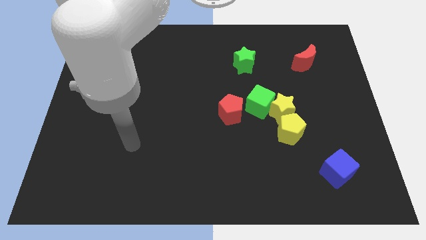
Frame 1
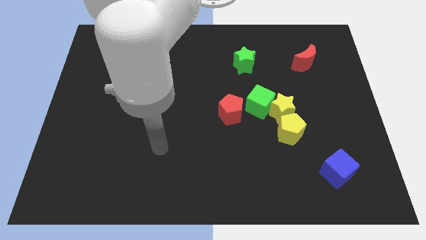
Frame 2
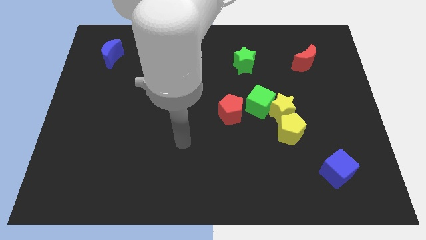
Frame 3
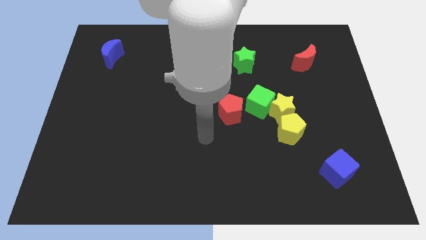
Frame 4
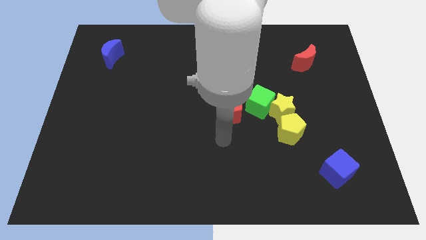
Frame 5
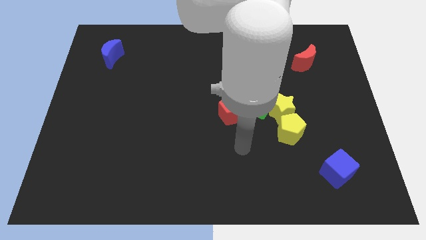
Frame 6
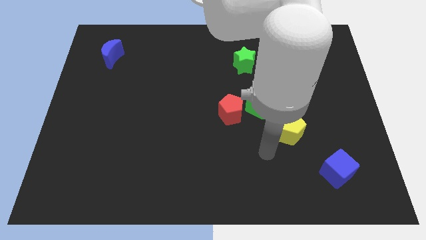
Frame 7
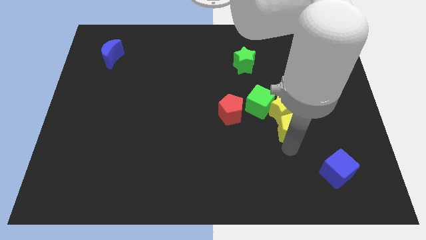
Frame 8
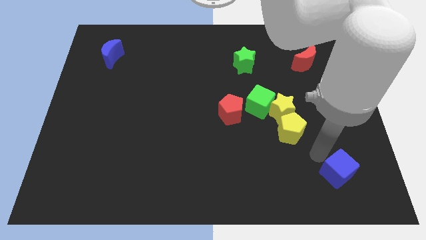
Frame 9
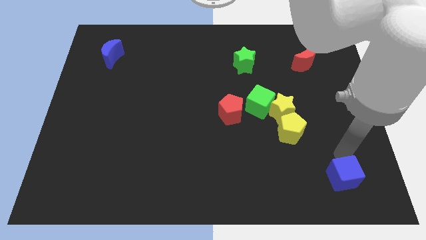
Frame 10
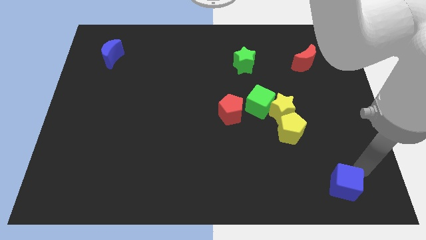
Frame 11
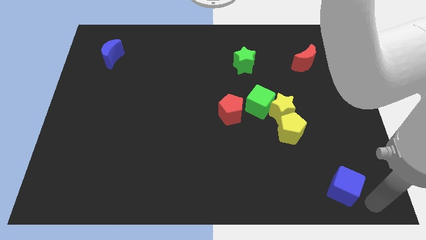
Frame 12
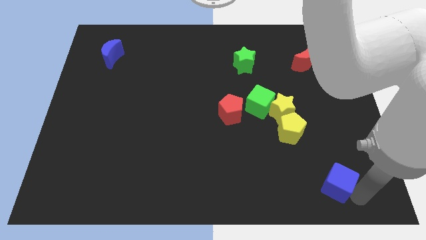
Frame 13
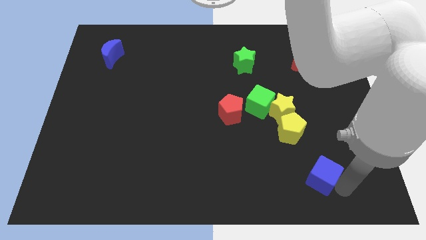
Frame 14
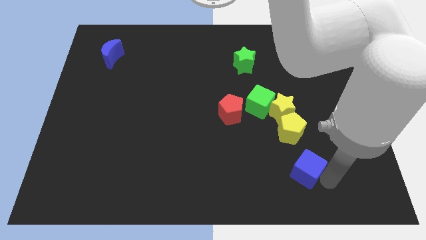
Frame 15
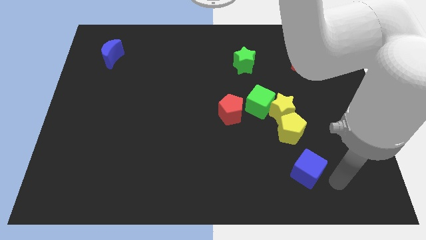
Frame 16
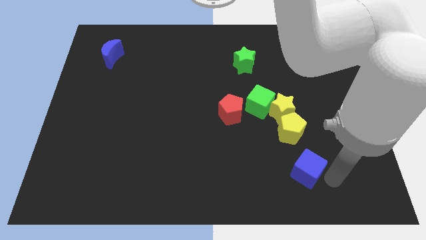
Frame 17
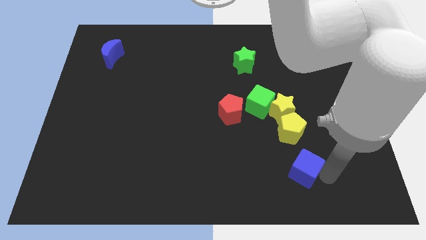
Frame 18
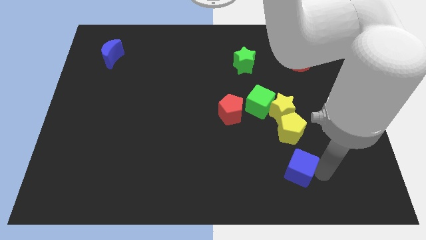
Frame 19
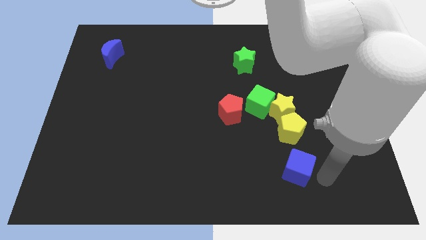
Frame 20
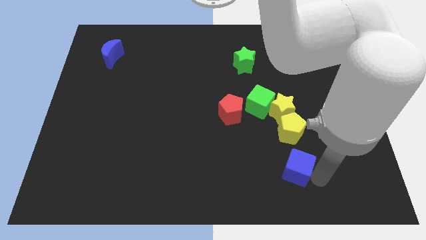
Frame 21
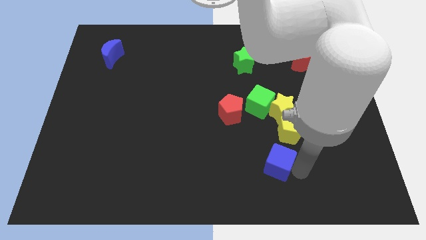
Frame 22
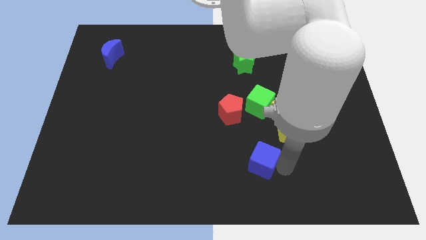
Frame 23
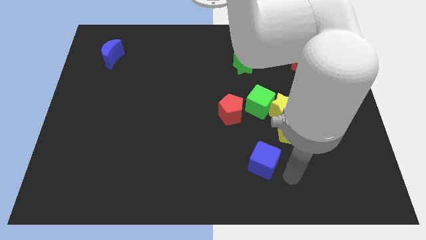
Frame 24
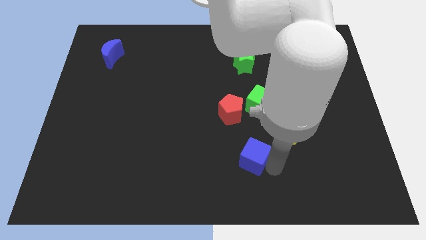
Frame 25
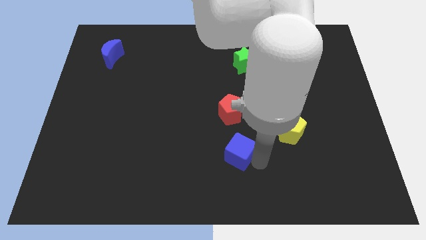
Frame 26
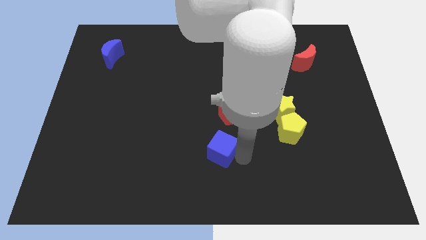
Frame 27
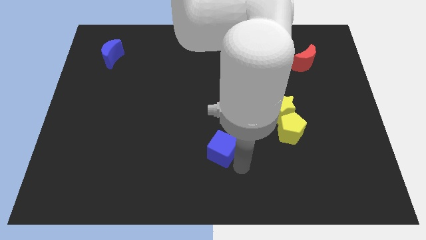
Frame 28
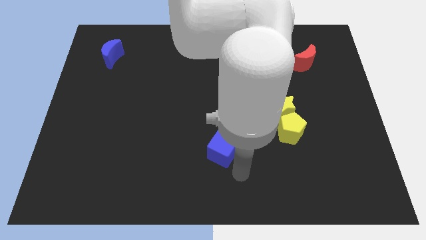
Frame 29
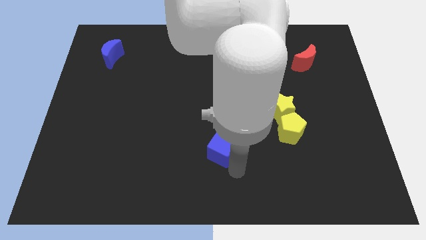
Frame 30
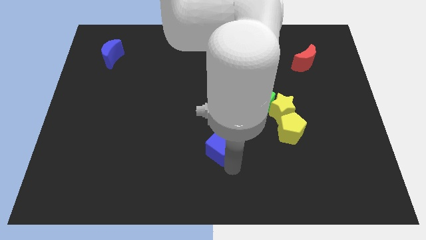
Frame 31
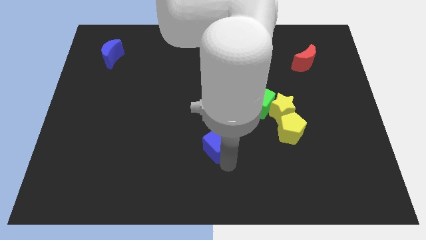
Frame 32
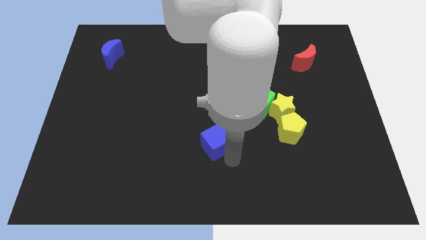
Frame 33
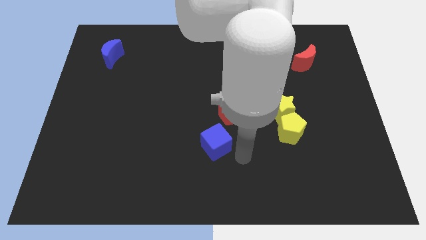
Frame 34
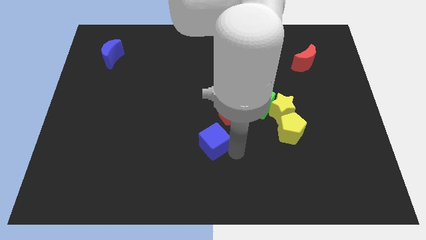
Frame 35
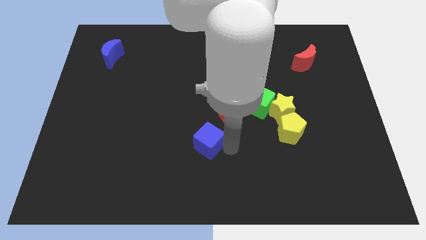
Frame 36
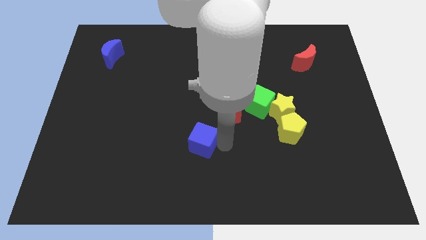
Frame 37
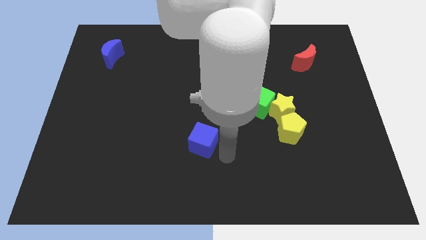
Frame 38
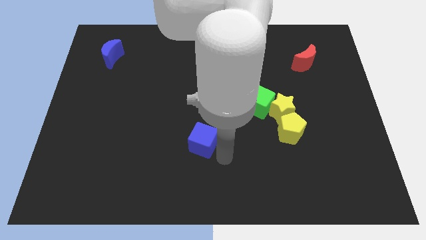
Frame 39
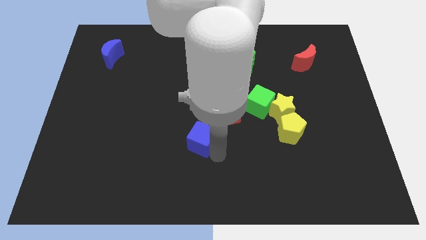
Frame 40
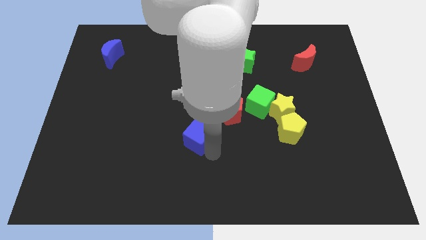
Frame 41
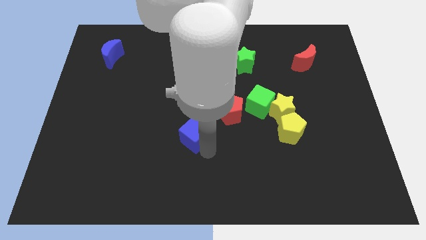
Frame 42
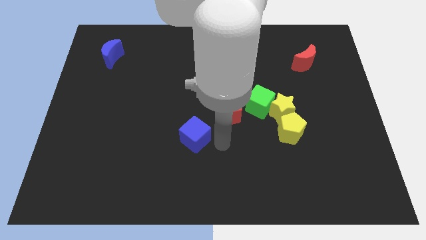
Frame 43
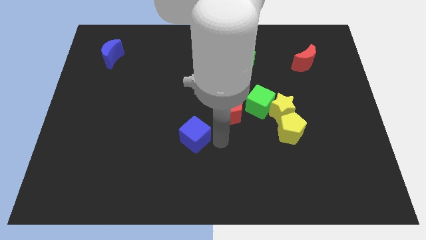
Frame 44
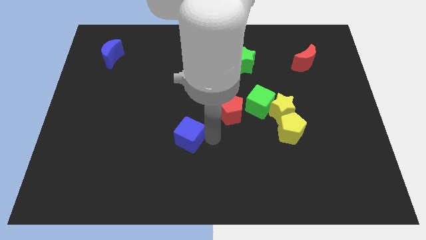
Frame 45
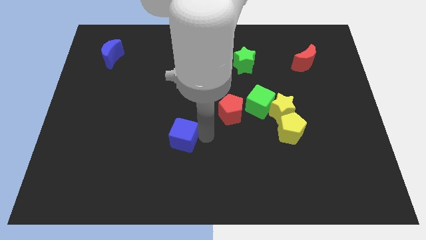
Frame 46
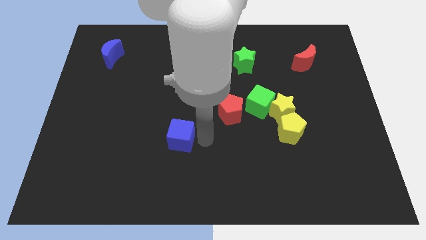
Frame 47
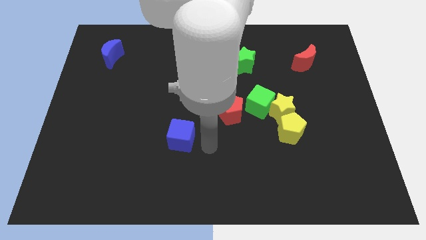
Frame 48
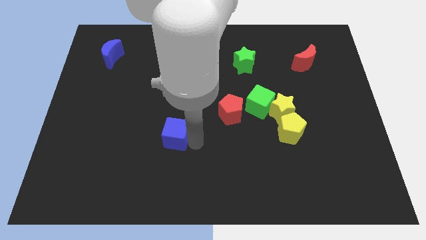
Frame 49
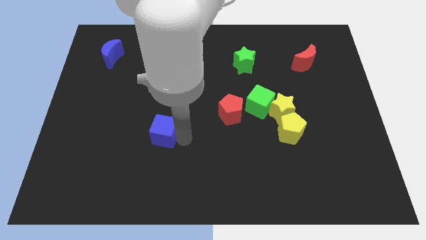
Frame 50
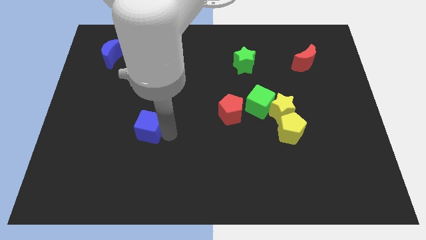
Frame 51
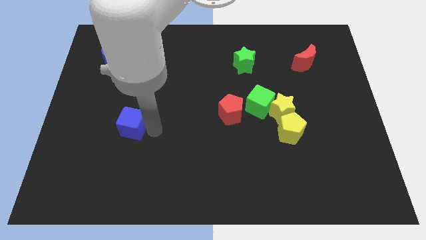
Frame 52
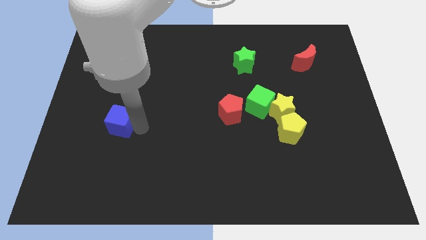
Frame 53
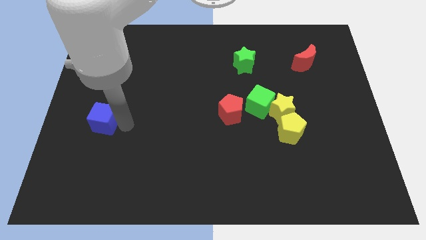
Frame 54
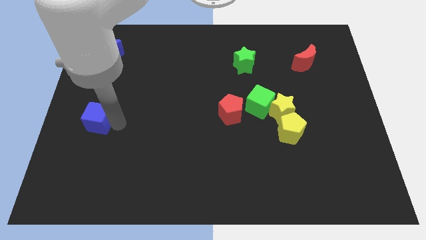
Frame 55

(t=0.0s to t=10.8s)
move the blue cube to the center left

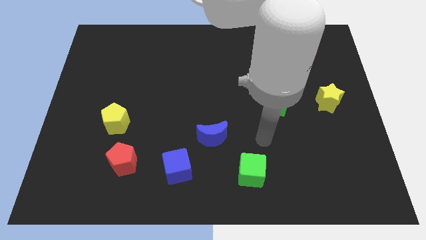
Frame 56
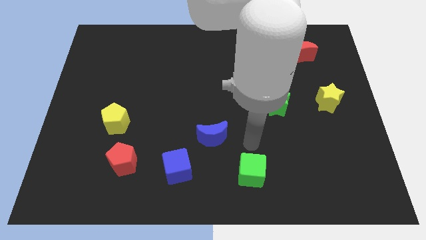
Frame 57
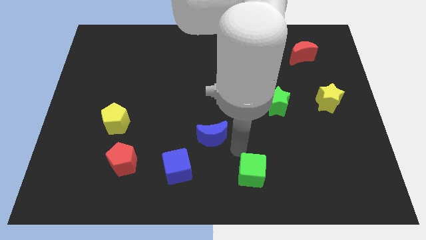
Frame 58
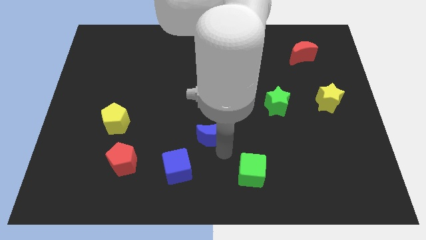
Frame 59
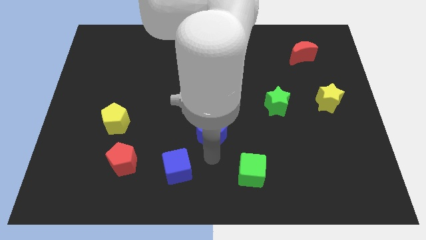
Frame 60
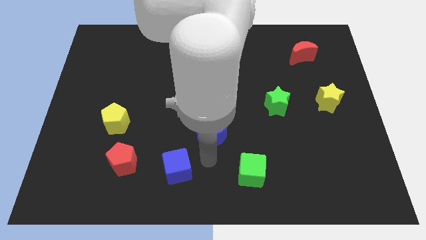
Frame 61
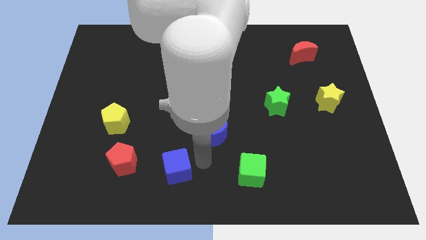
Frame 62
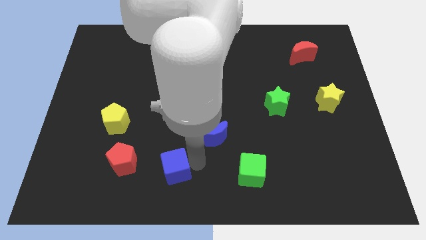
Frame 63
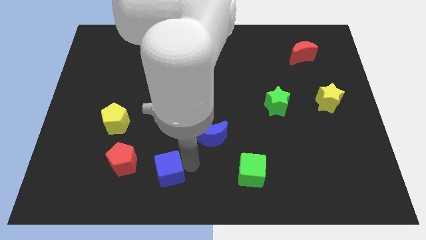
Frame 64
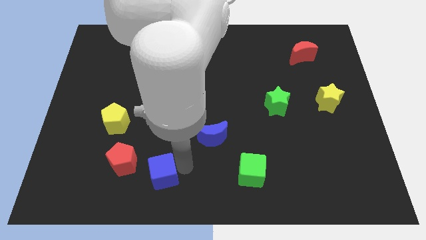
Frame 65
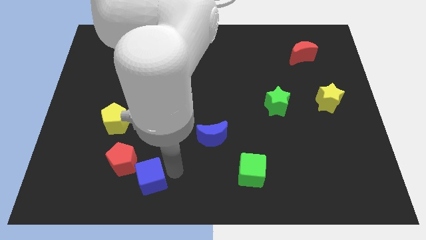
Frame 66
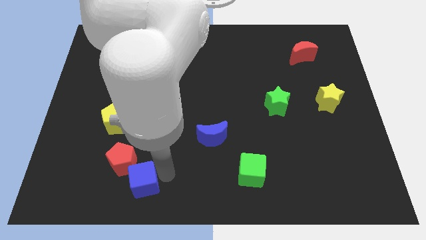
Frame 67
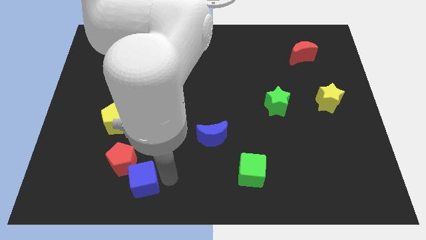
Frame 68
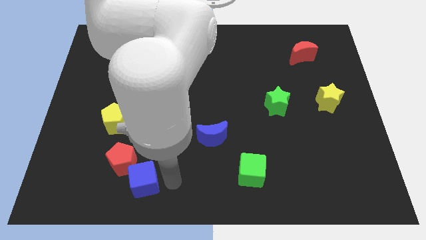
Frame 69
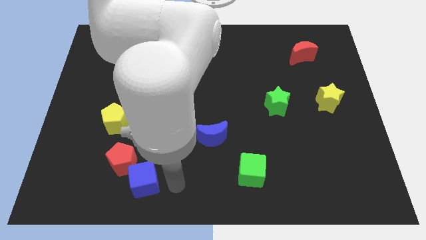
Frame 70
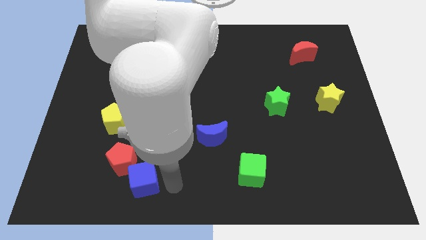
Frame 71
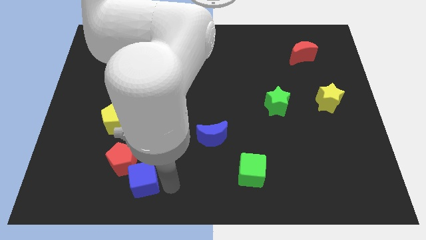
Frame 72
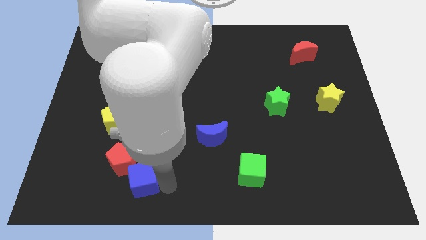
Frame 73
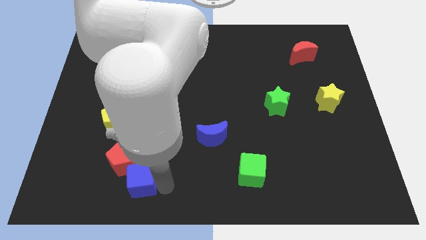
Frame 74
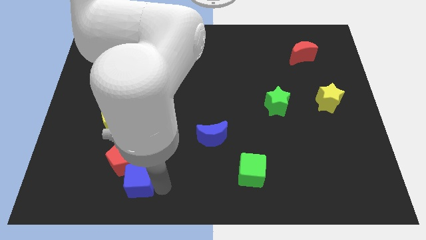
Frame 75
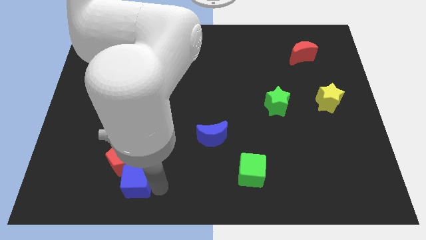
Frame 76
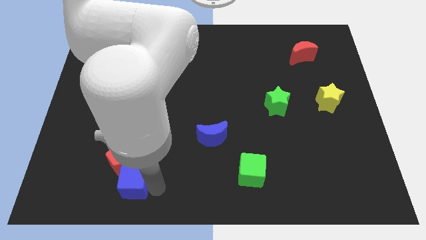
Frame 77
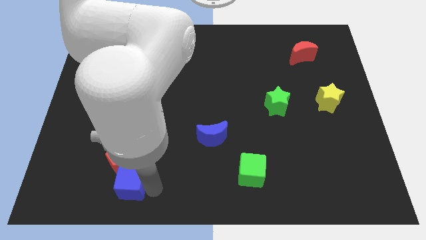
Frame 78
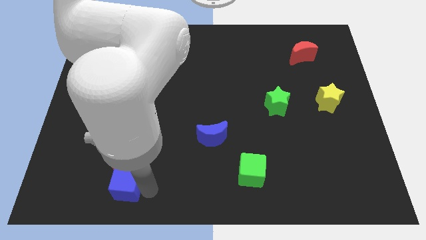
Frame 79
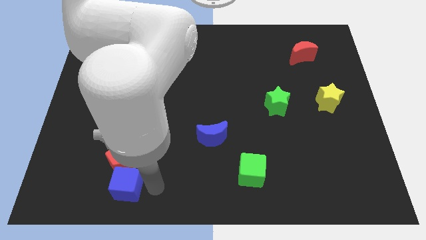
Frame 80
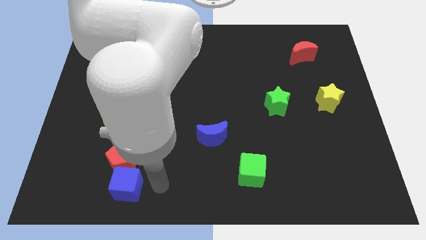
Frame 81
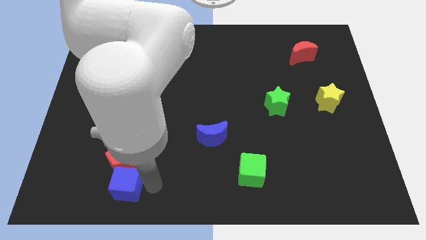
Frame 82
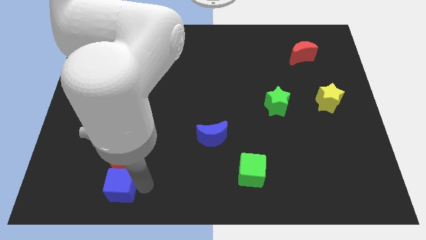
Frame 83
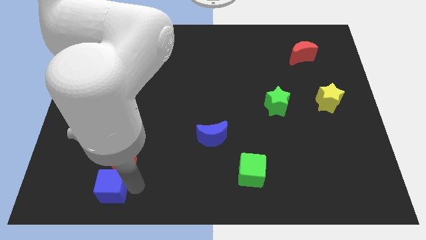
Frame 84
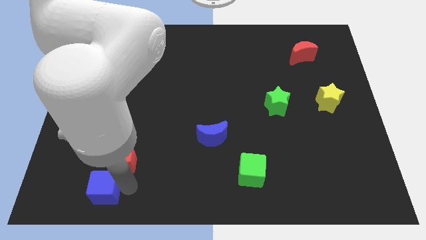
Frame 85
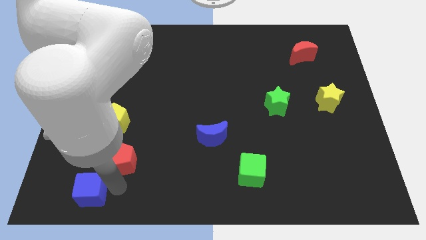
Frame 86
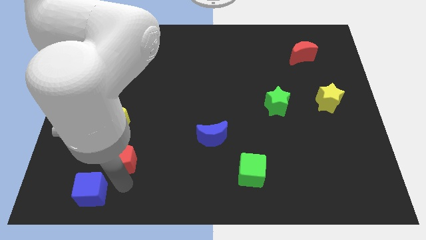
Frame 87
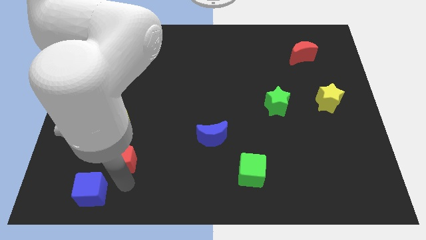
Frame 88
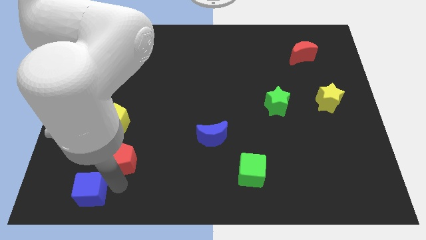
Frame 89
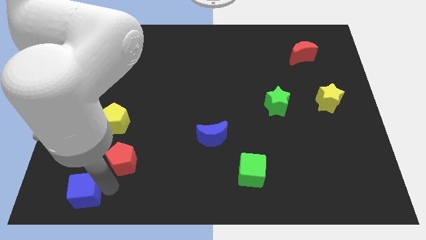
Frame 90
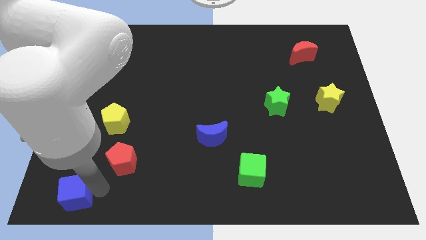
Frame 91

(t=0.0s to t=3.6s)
slide the blue cube to the bottom left corner
